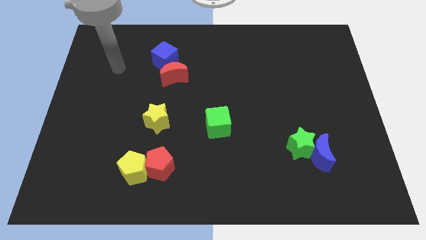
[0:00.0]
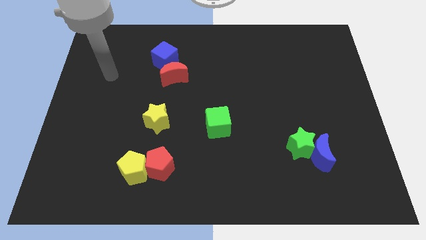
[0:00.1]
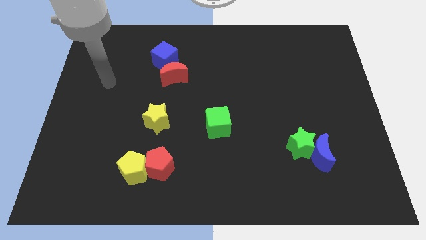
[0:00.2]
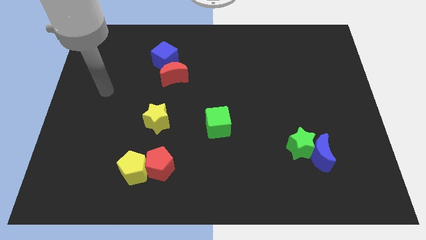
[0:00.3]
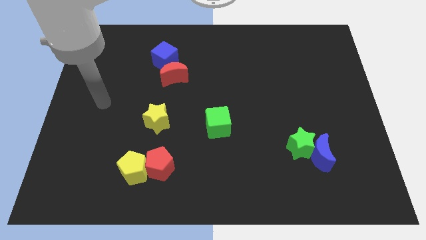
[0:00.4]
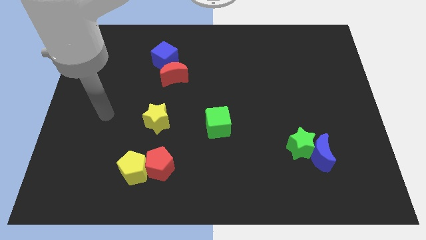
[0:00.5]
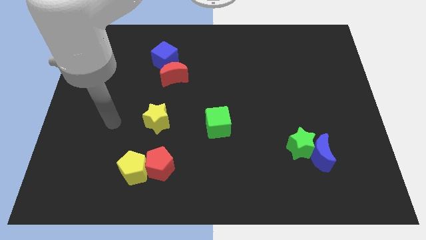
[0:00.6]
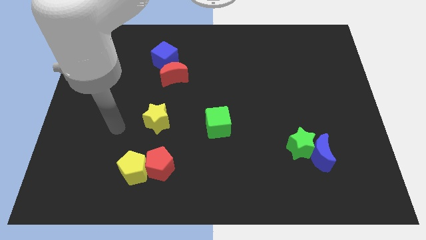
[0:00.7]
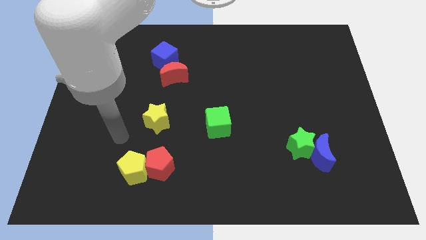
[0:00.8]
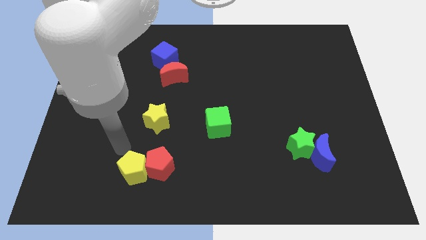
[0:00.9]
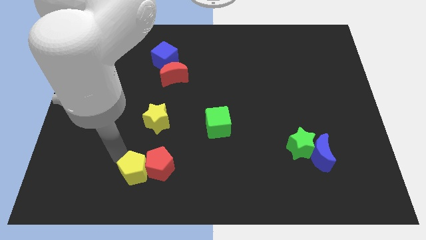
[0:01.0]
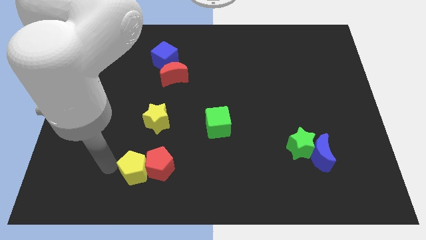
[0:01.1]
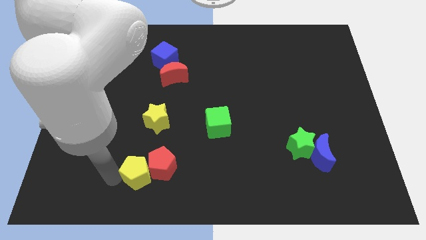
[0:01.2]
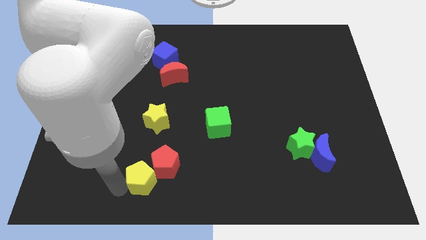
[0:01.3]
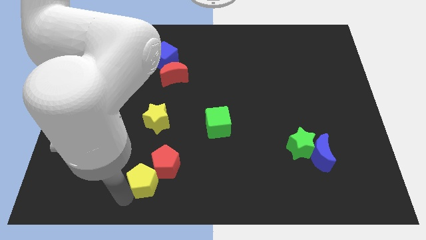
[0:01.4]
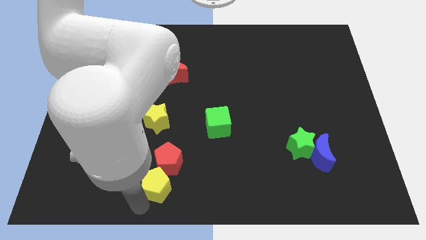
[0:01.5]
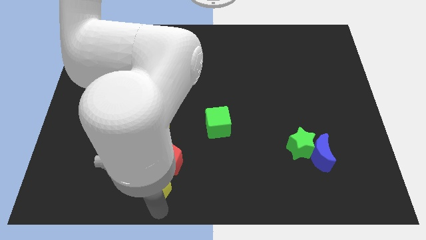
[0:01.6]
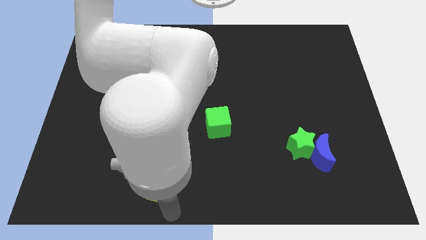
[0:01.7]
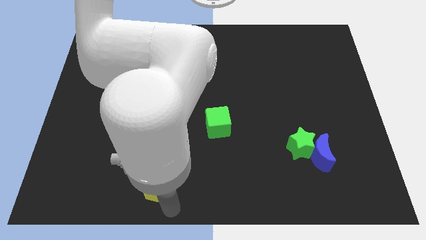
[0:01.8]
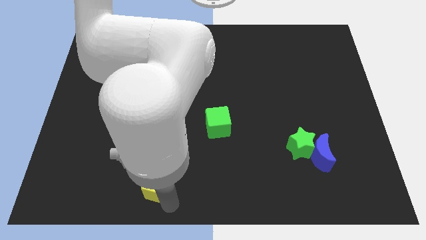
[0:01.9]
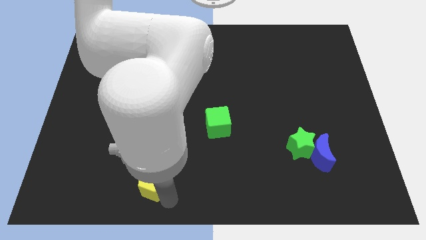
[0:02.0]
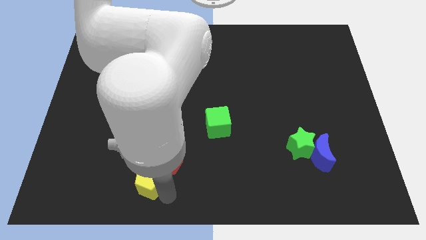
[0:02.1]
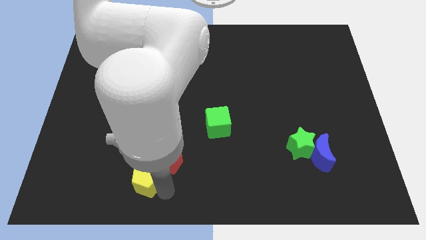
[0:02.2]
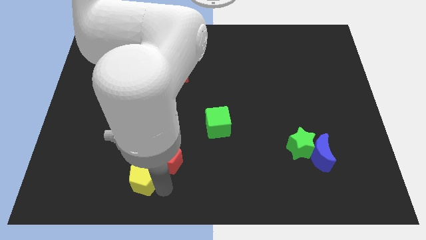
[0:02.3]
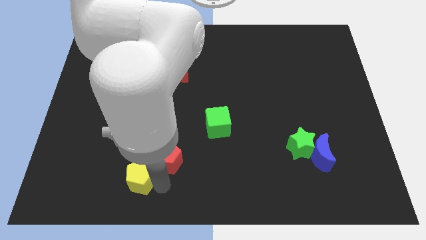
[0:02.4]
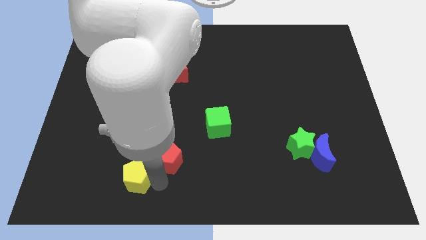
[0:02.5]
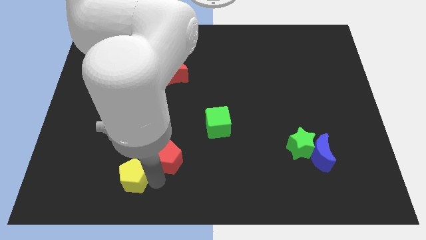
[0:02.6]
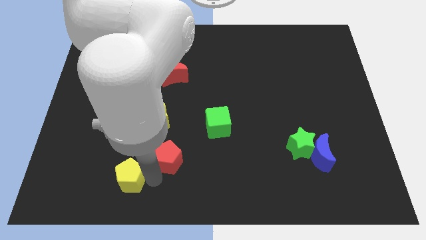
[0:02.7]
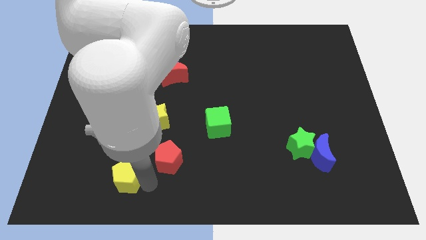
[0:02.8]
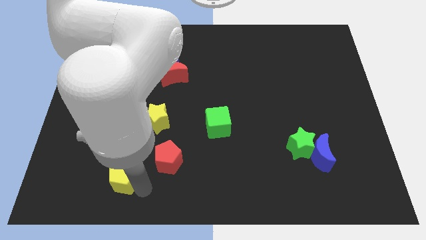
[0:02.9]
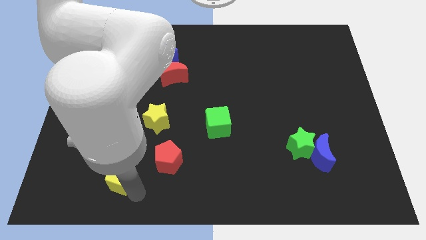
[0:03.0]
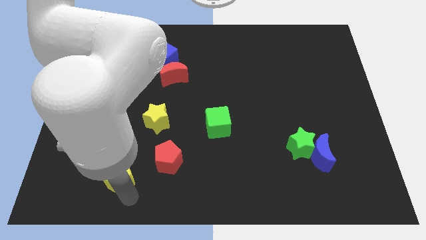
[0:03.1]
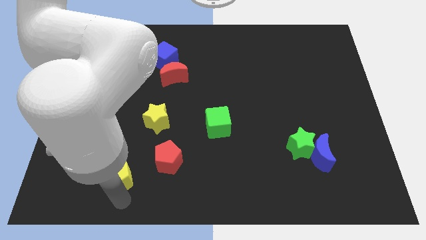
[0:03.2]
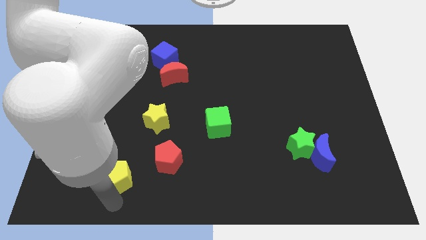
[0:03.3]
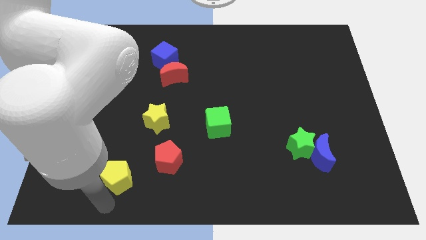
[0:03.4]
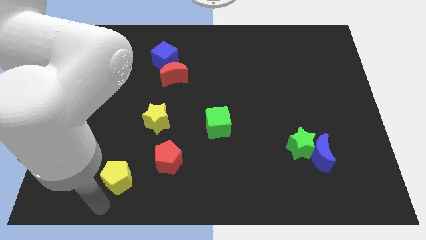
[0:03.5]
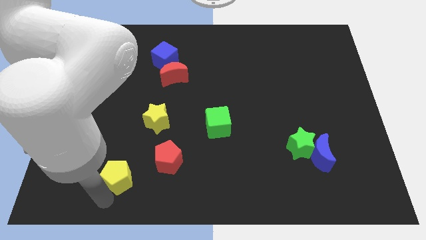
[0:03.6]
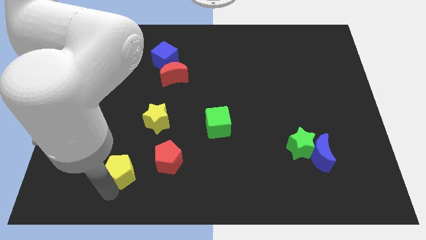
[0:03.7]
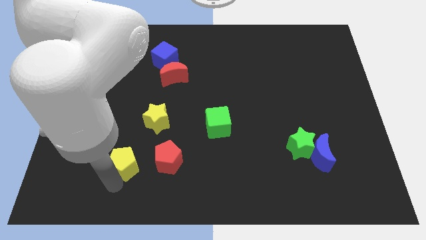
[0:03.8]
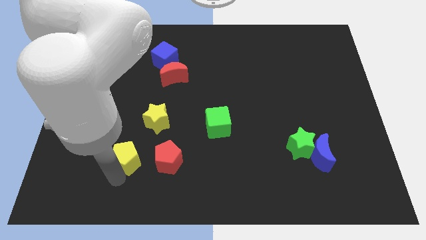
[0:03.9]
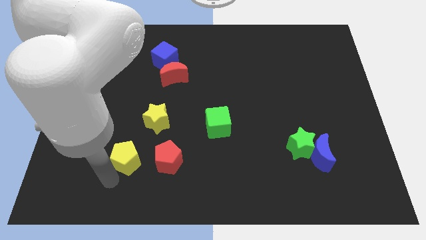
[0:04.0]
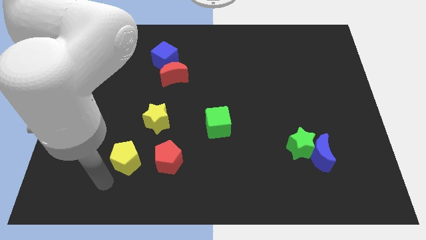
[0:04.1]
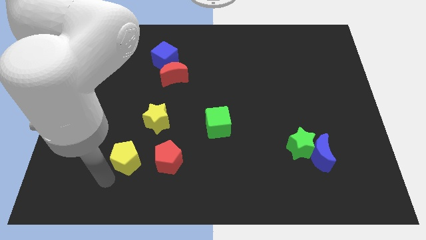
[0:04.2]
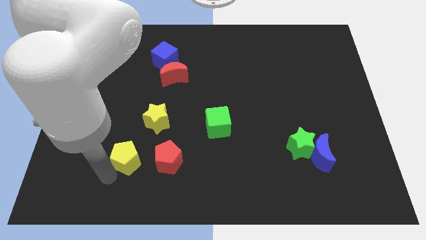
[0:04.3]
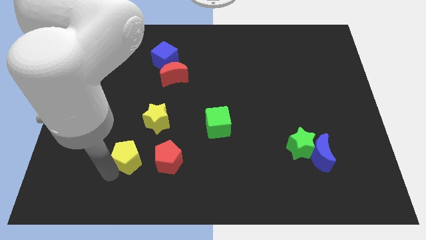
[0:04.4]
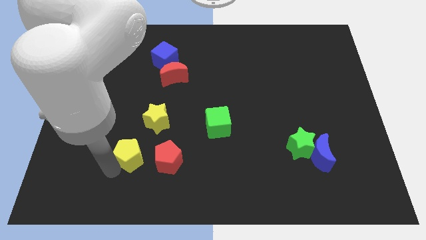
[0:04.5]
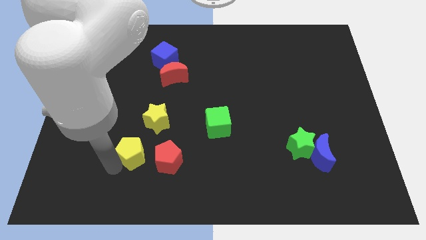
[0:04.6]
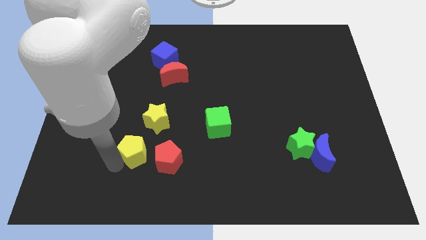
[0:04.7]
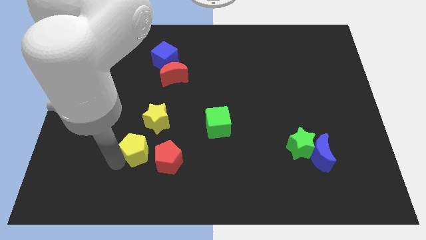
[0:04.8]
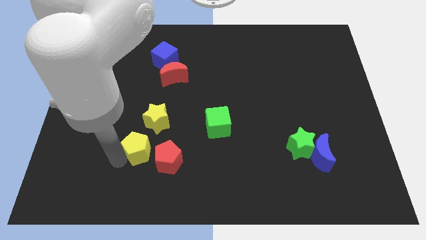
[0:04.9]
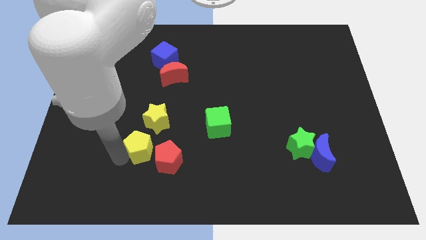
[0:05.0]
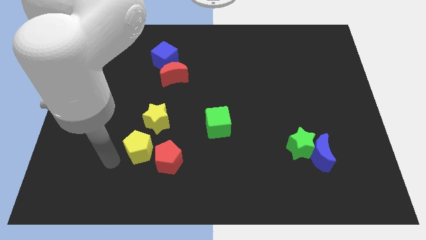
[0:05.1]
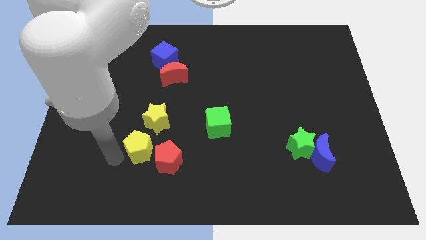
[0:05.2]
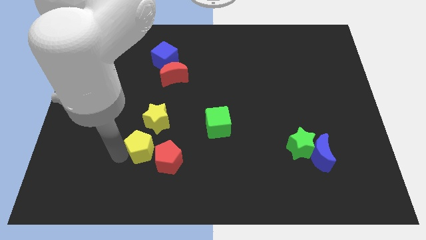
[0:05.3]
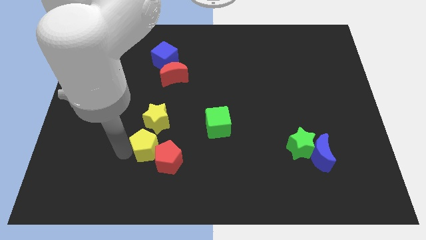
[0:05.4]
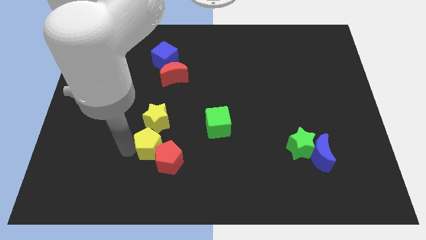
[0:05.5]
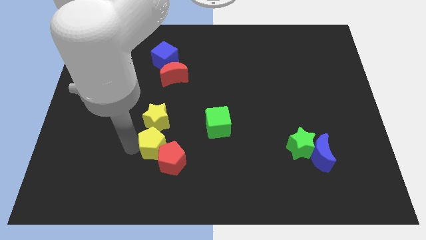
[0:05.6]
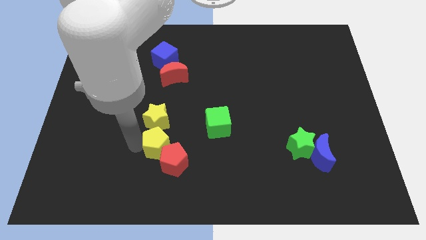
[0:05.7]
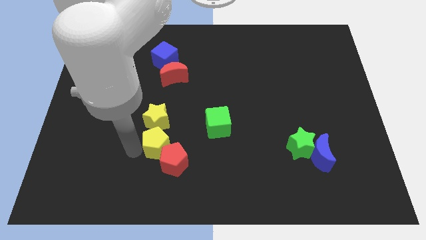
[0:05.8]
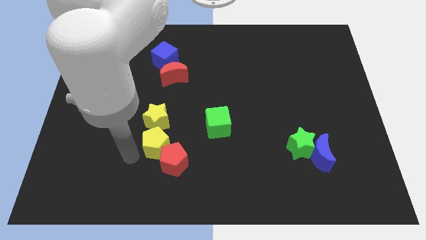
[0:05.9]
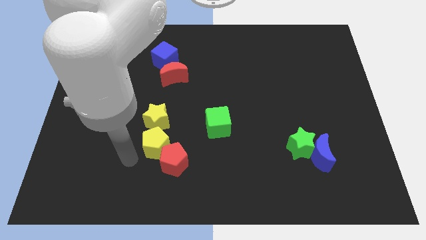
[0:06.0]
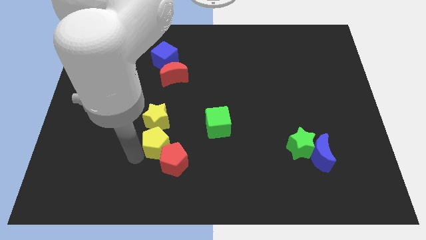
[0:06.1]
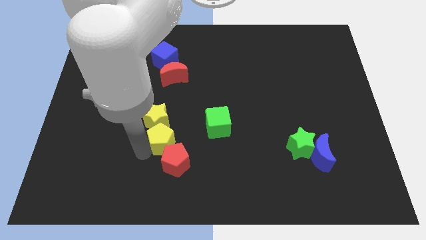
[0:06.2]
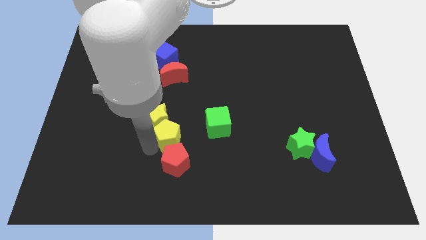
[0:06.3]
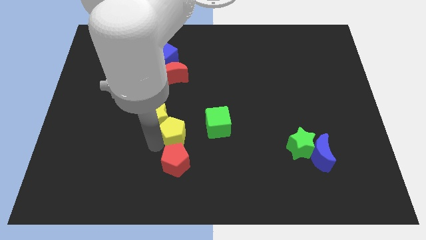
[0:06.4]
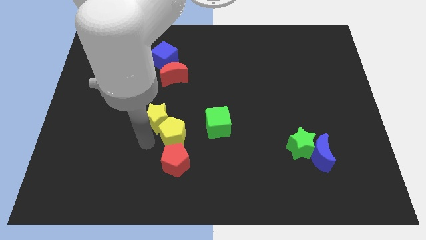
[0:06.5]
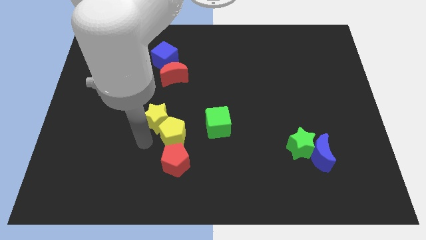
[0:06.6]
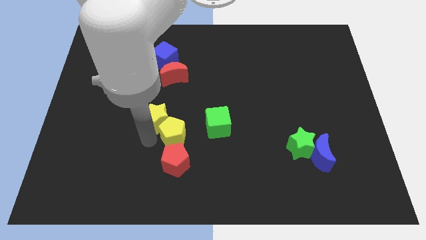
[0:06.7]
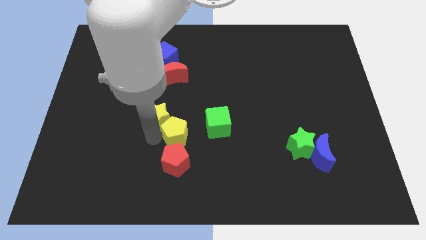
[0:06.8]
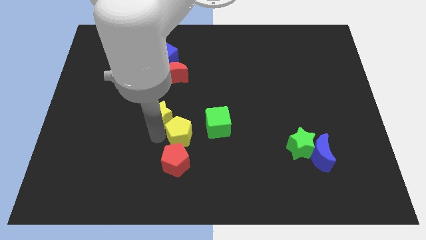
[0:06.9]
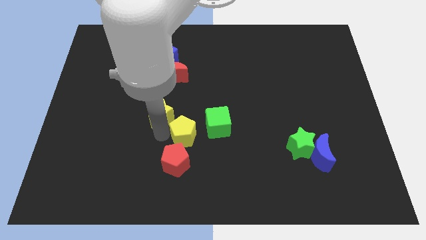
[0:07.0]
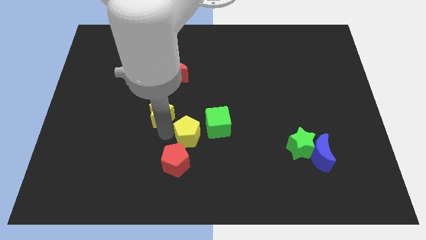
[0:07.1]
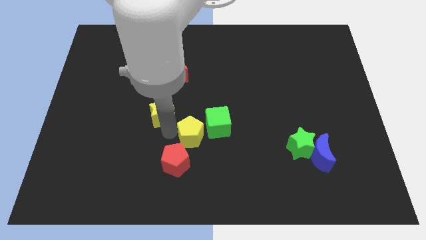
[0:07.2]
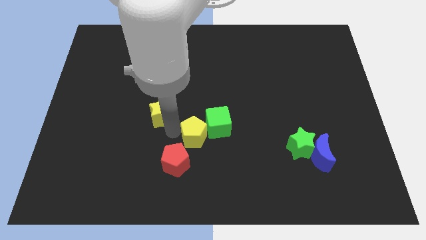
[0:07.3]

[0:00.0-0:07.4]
slide the yellow pentagon next to the green cube
